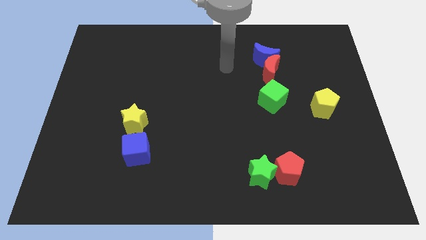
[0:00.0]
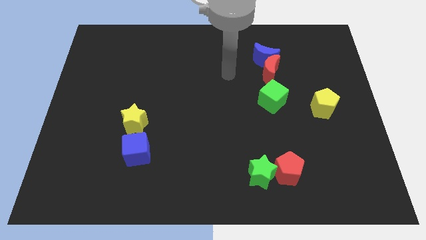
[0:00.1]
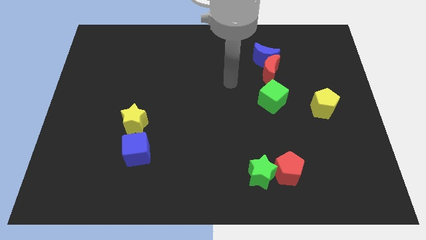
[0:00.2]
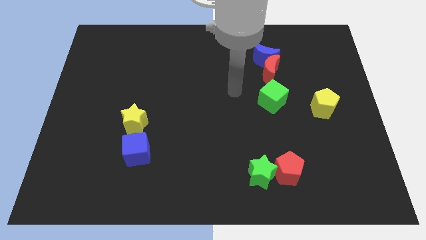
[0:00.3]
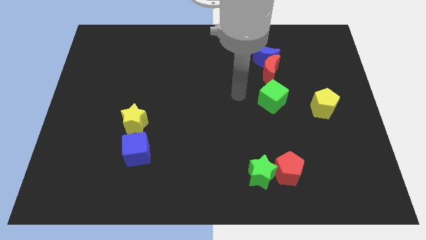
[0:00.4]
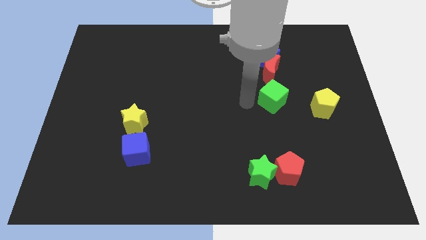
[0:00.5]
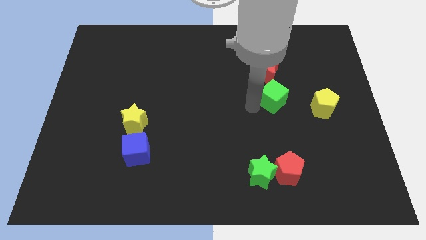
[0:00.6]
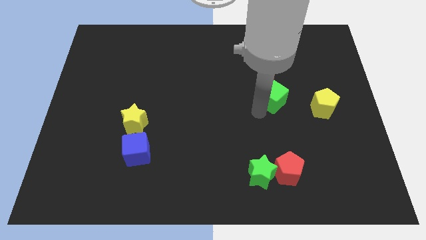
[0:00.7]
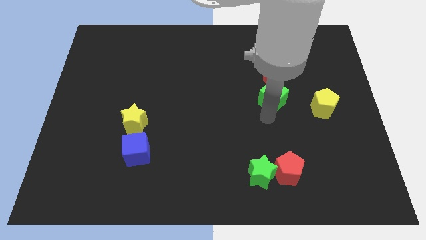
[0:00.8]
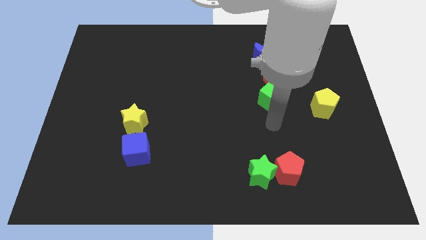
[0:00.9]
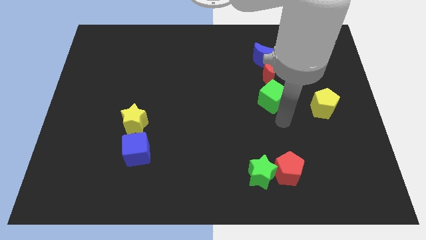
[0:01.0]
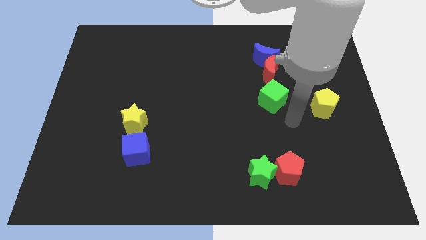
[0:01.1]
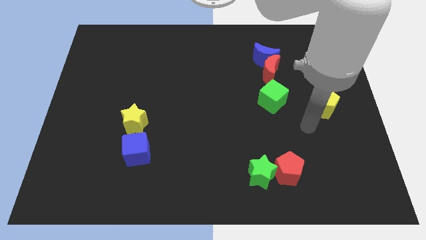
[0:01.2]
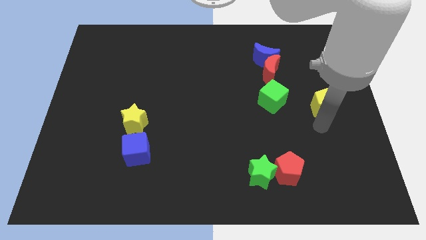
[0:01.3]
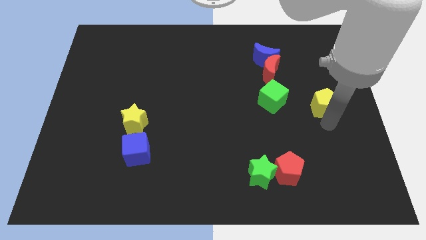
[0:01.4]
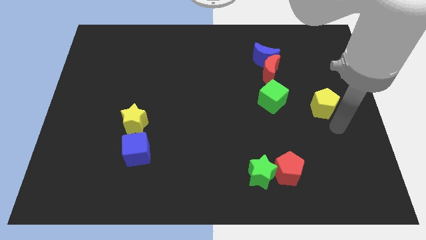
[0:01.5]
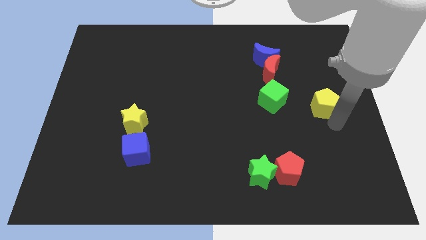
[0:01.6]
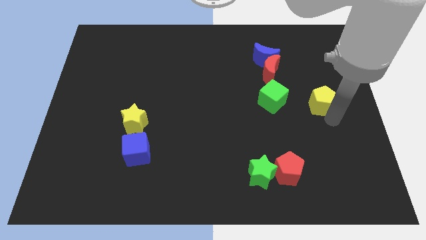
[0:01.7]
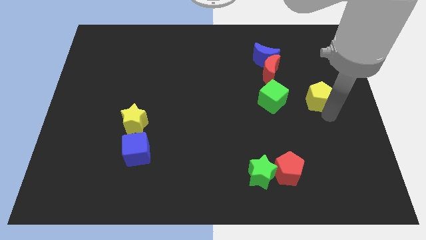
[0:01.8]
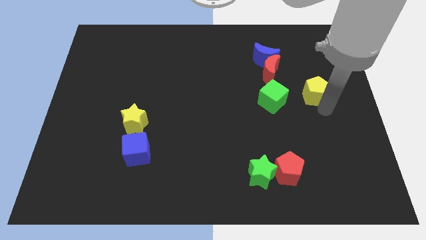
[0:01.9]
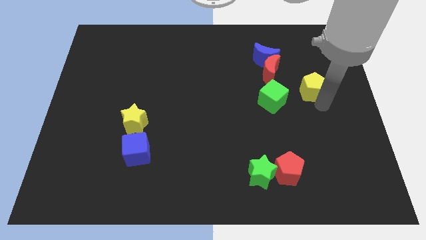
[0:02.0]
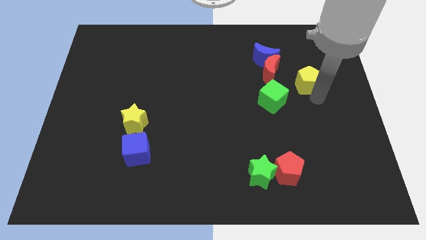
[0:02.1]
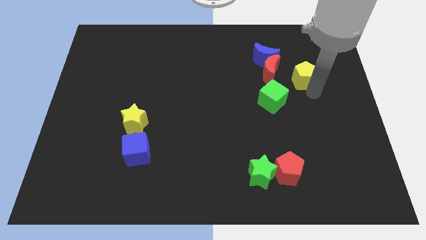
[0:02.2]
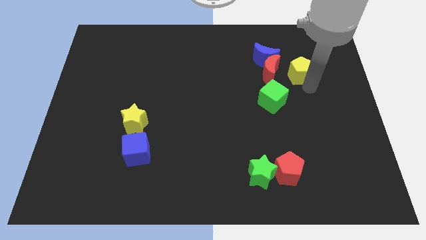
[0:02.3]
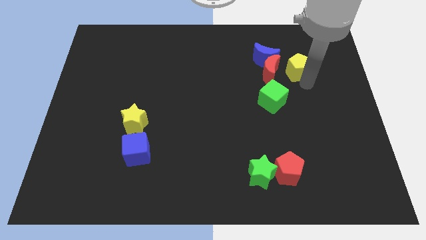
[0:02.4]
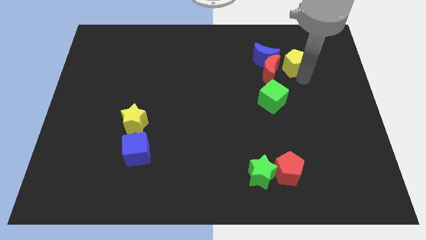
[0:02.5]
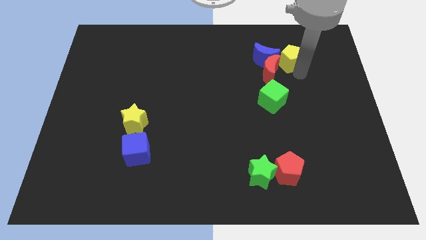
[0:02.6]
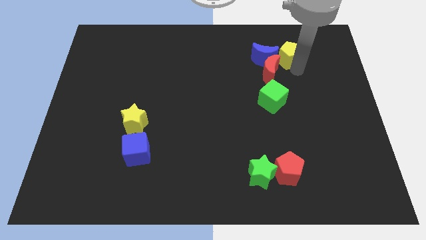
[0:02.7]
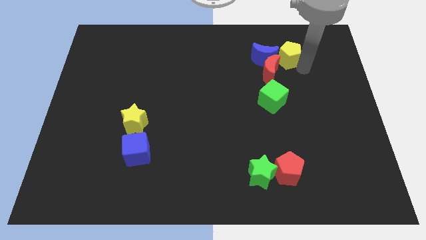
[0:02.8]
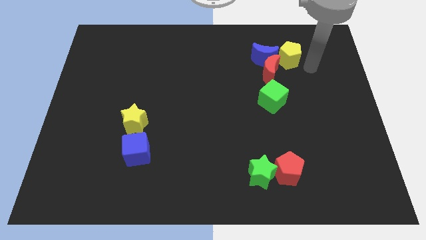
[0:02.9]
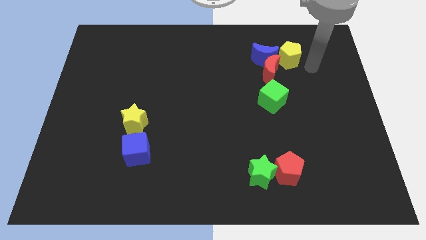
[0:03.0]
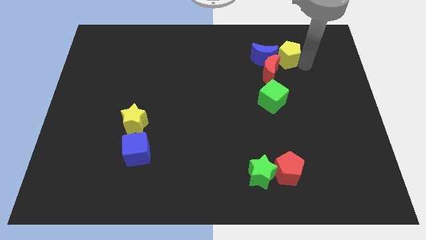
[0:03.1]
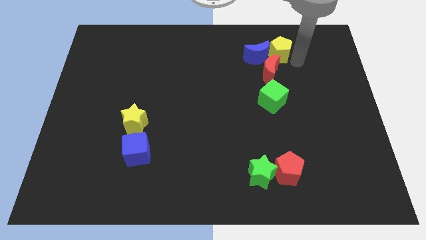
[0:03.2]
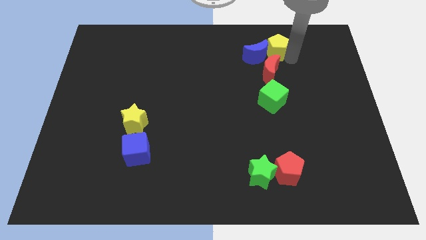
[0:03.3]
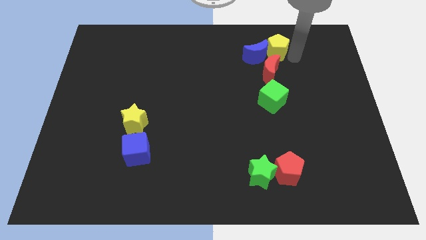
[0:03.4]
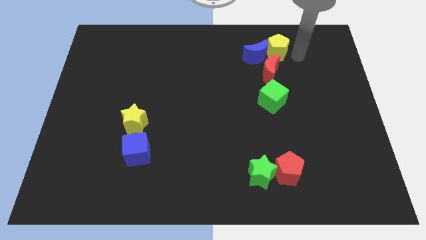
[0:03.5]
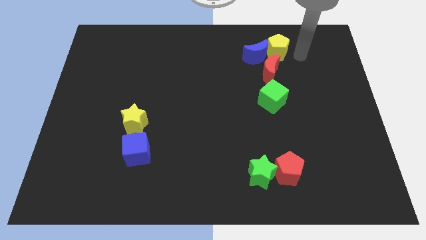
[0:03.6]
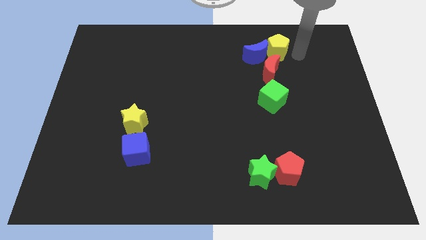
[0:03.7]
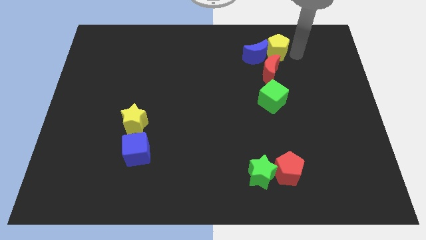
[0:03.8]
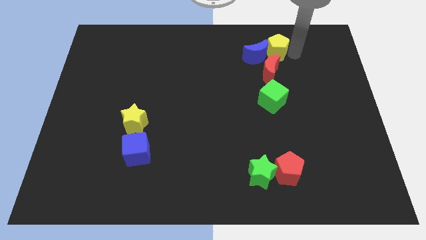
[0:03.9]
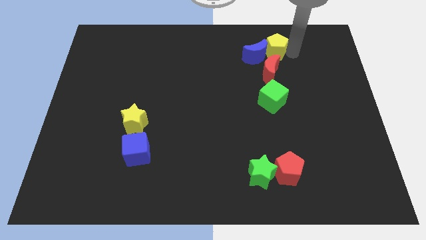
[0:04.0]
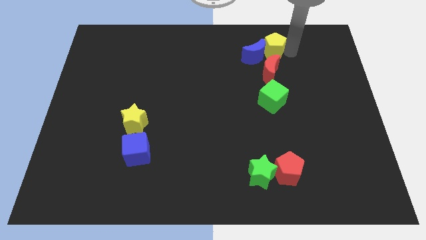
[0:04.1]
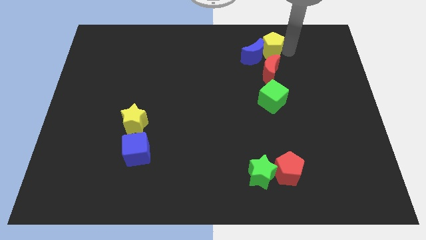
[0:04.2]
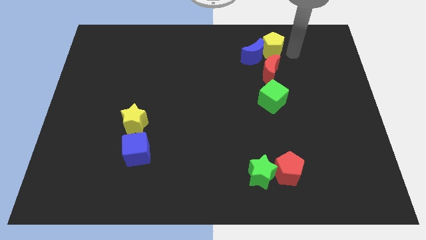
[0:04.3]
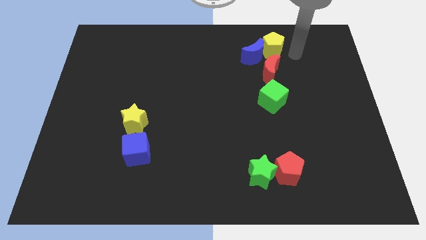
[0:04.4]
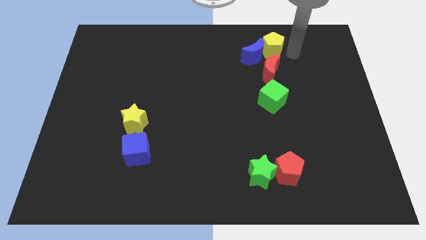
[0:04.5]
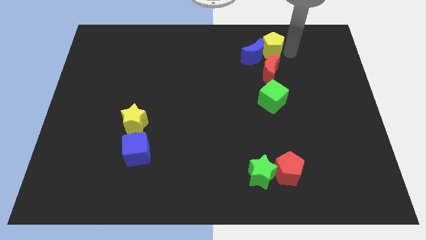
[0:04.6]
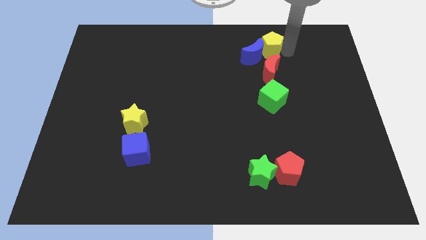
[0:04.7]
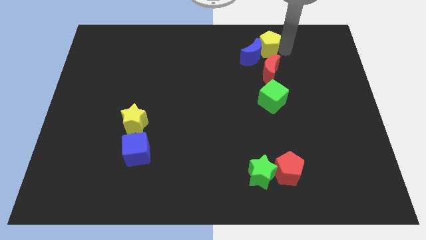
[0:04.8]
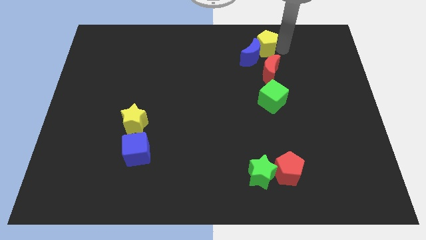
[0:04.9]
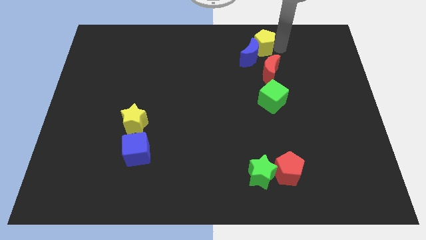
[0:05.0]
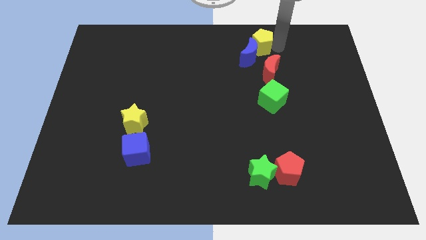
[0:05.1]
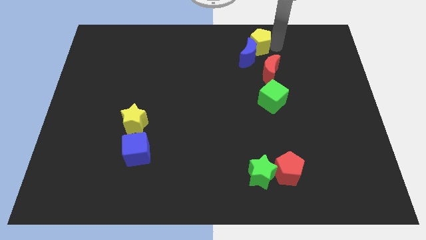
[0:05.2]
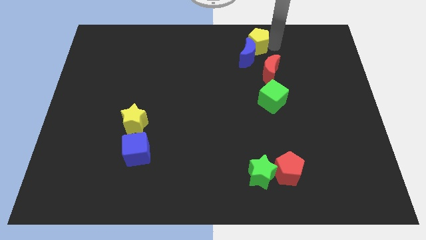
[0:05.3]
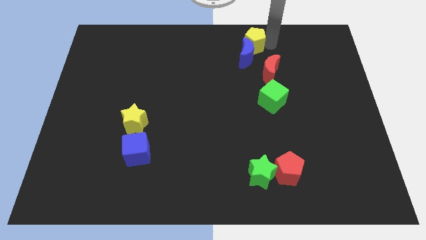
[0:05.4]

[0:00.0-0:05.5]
move the yellow pentagon to the top
